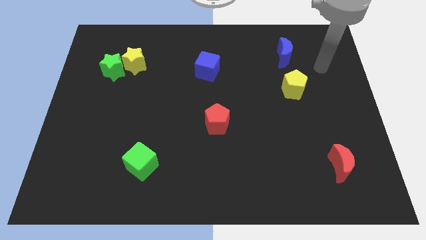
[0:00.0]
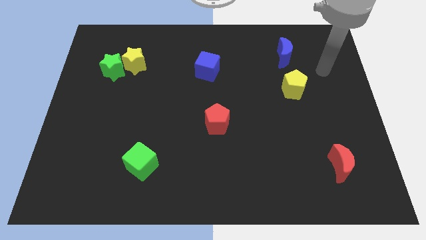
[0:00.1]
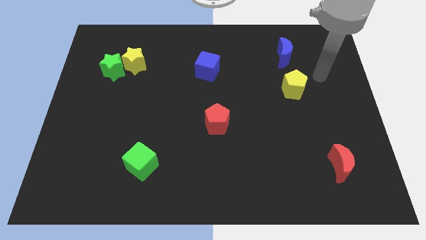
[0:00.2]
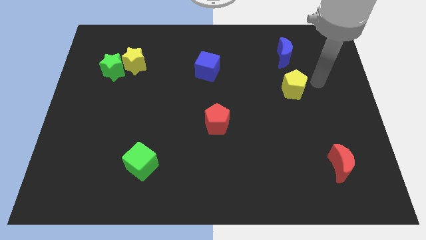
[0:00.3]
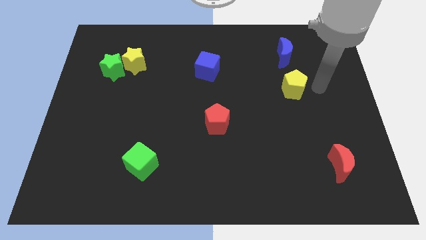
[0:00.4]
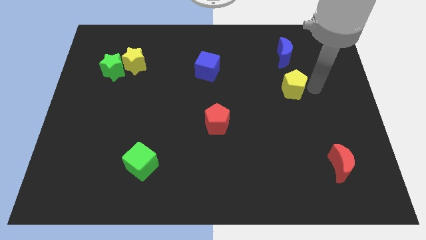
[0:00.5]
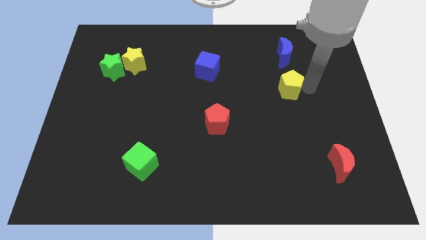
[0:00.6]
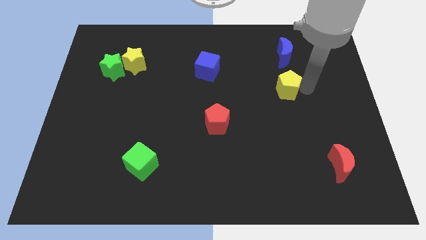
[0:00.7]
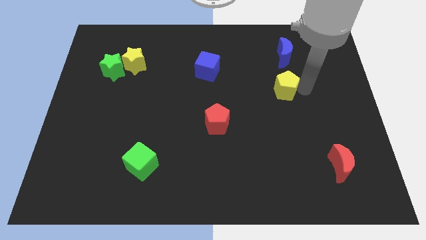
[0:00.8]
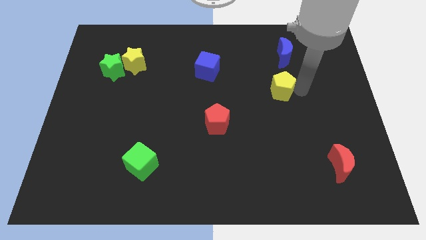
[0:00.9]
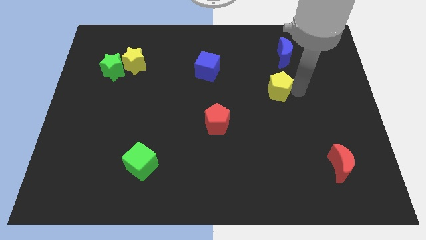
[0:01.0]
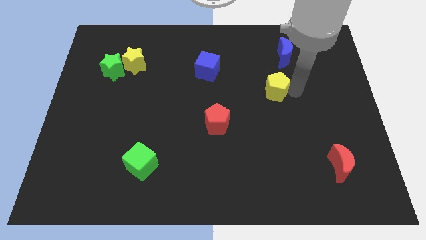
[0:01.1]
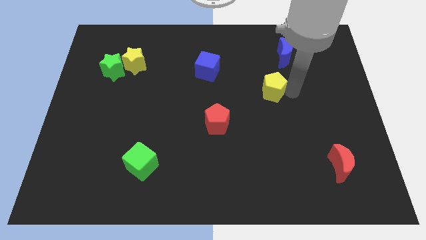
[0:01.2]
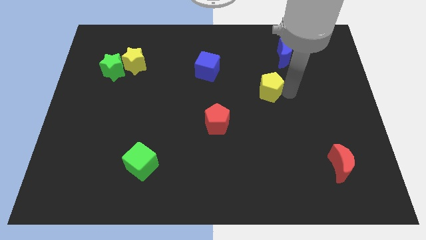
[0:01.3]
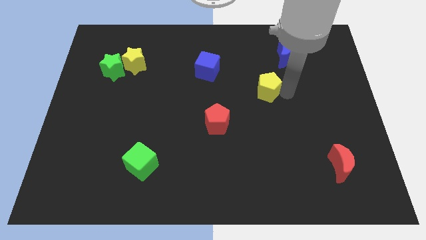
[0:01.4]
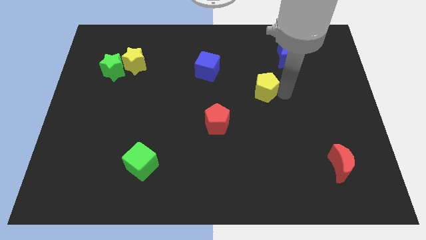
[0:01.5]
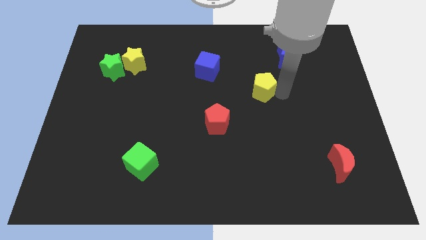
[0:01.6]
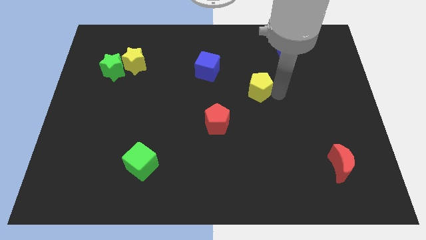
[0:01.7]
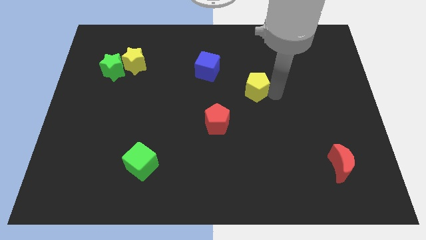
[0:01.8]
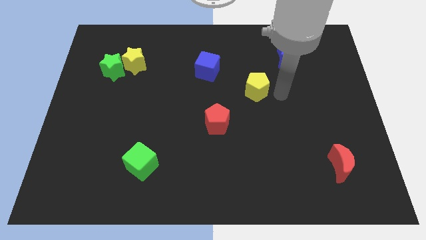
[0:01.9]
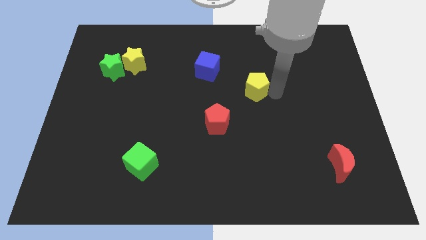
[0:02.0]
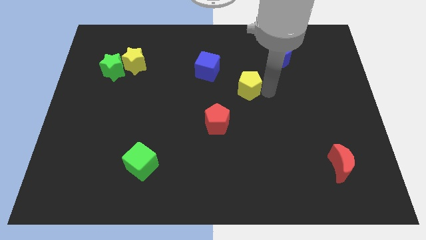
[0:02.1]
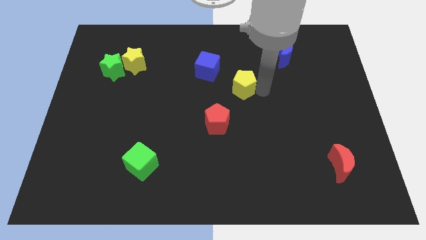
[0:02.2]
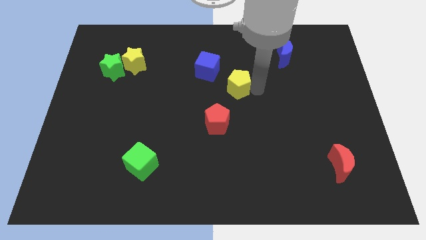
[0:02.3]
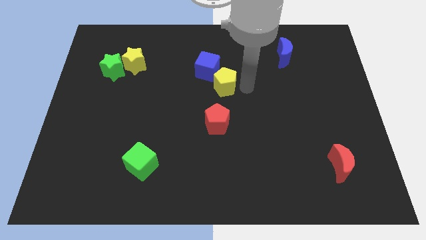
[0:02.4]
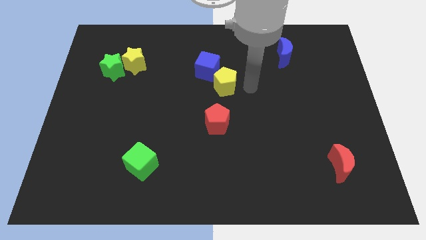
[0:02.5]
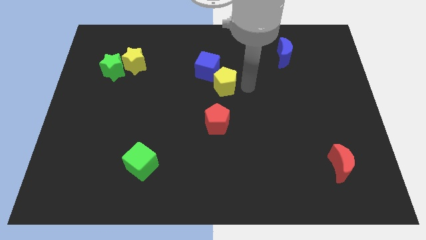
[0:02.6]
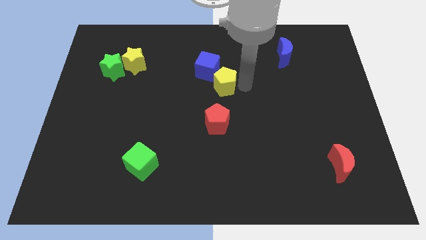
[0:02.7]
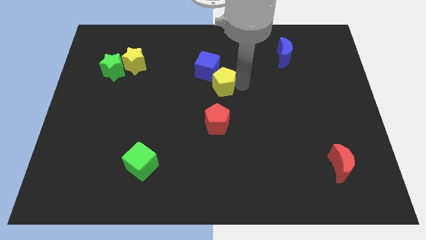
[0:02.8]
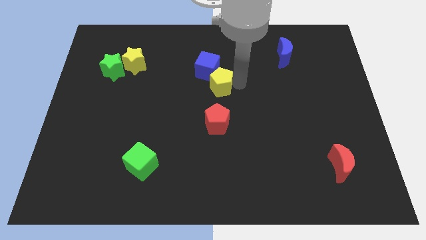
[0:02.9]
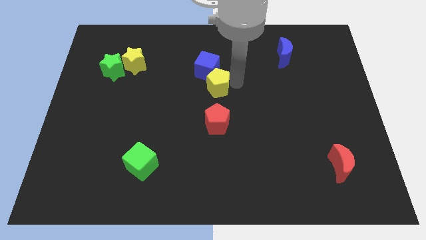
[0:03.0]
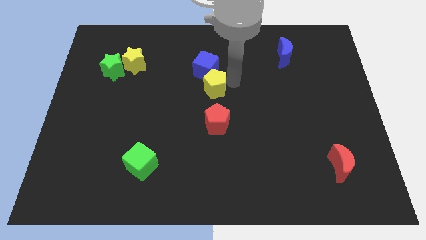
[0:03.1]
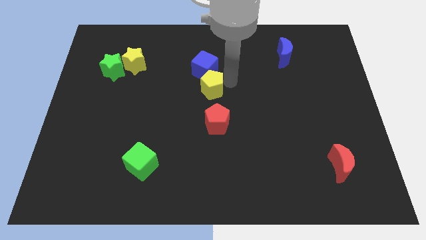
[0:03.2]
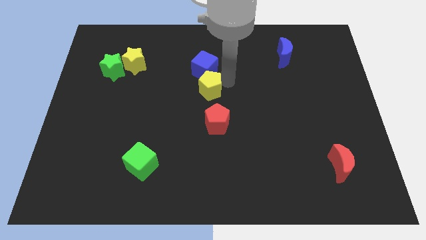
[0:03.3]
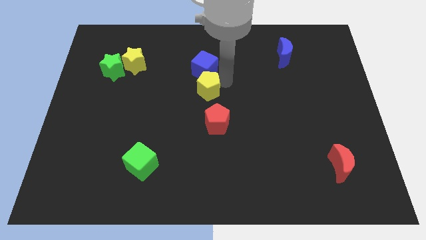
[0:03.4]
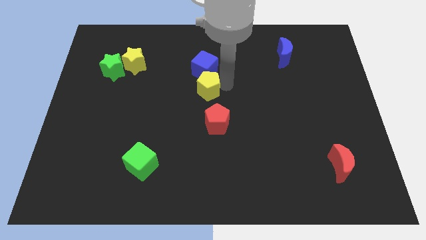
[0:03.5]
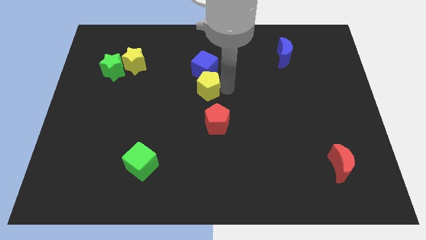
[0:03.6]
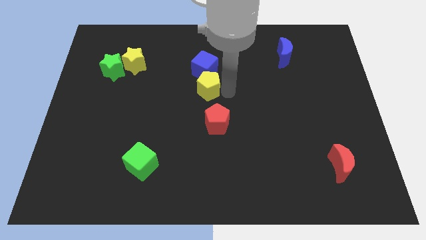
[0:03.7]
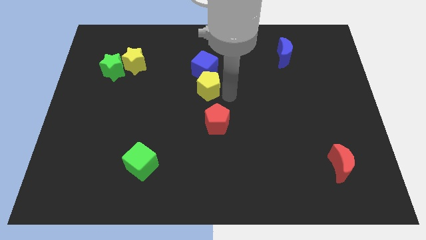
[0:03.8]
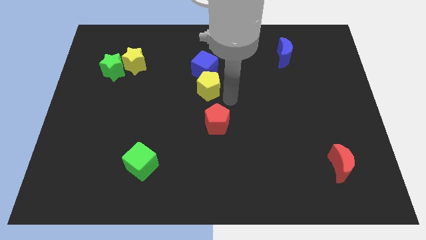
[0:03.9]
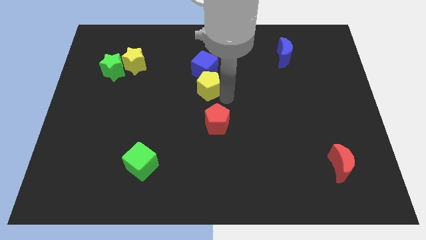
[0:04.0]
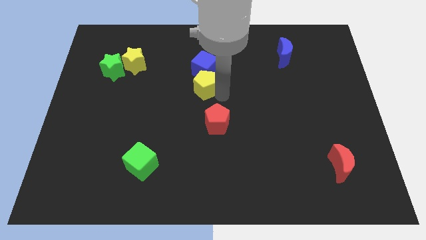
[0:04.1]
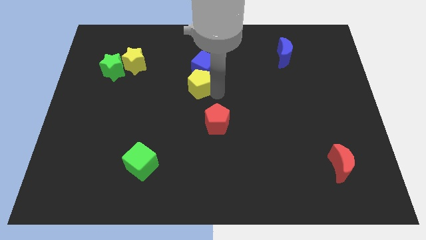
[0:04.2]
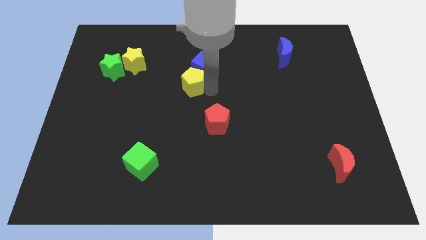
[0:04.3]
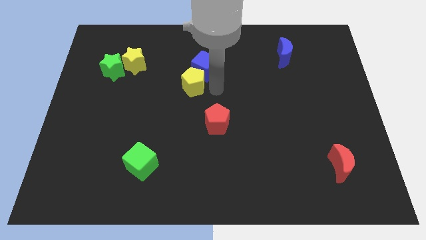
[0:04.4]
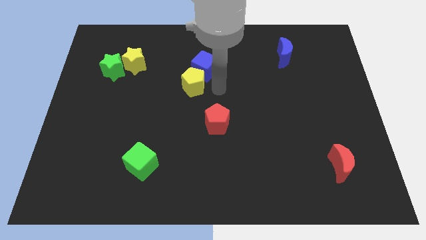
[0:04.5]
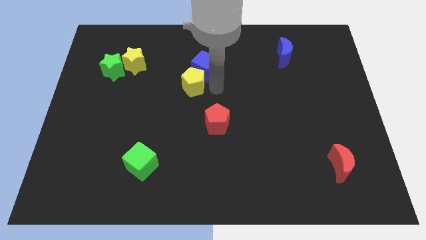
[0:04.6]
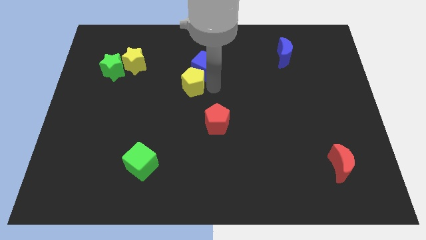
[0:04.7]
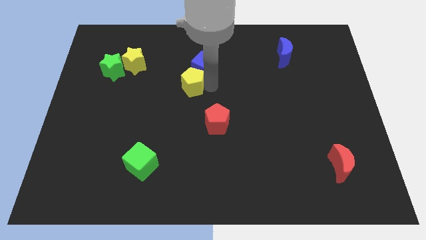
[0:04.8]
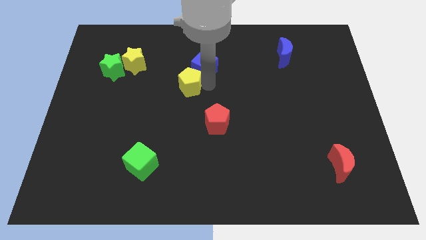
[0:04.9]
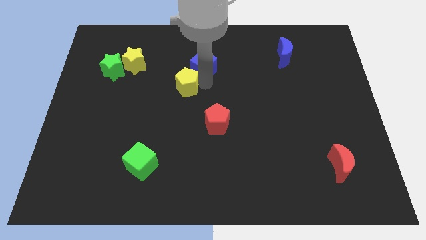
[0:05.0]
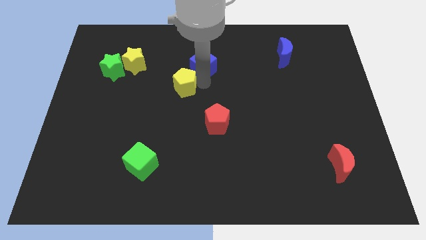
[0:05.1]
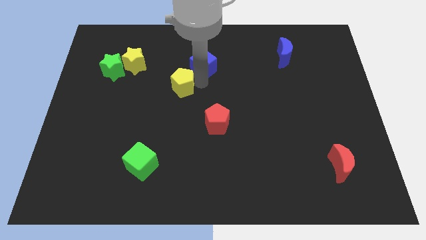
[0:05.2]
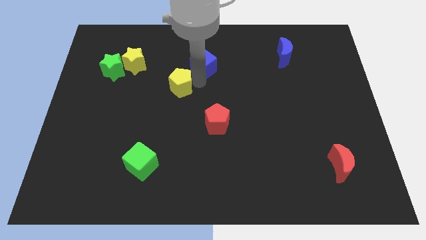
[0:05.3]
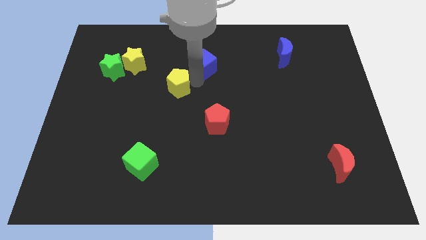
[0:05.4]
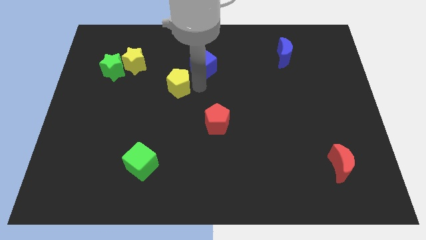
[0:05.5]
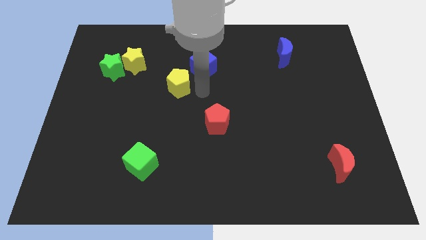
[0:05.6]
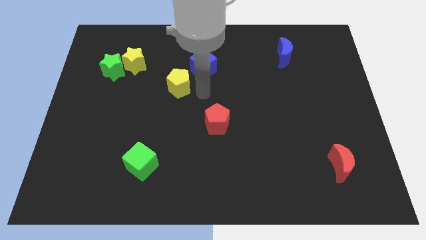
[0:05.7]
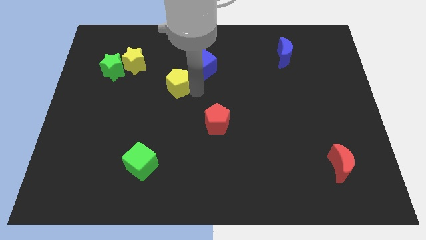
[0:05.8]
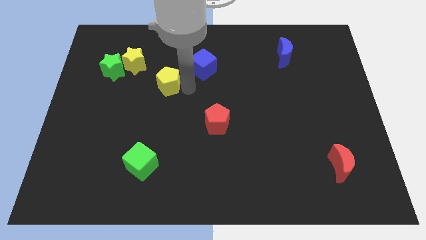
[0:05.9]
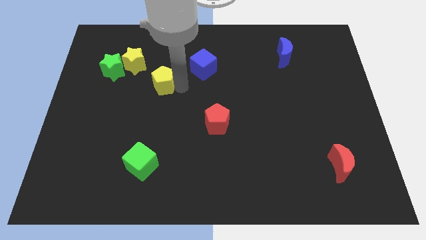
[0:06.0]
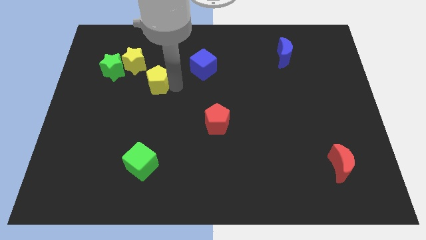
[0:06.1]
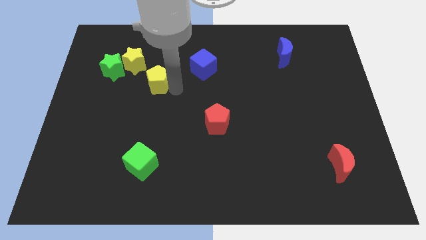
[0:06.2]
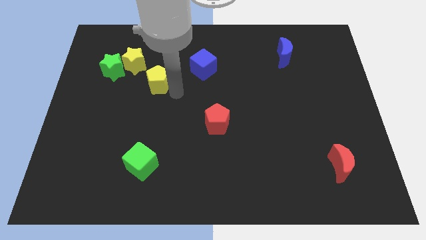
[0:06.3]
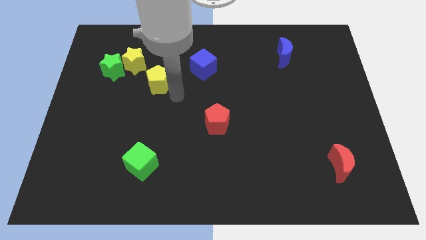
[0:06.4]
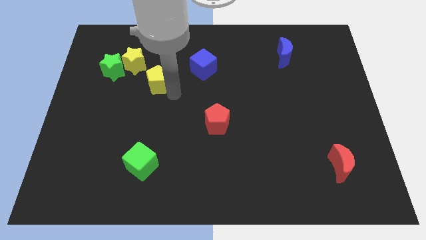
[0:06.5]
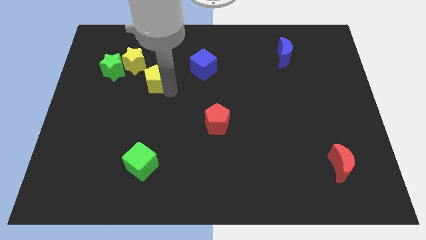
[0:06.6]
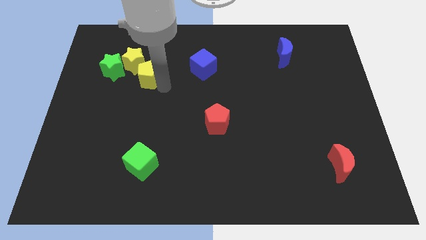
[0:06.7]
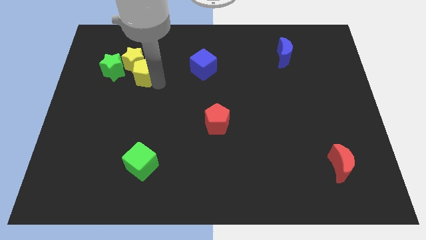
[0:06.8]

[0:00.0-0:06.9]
move the yellow pentagon to the yellow star
